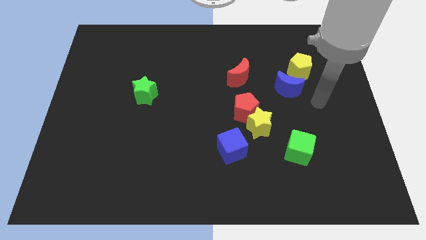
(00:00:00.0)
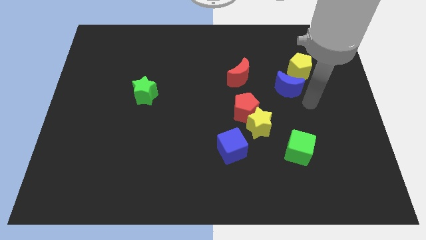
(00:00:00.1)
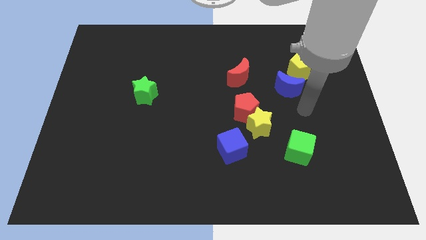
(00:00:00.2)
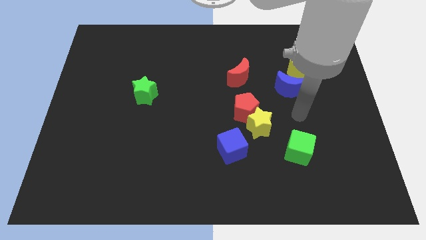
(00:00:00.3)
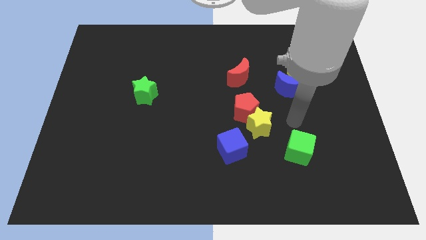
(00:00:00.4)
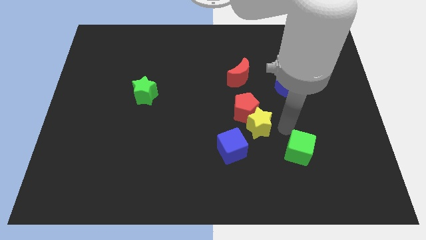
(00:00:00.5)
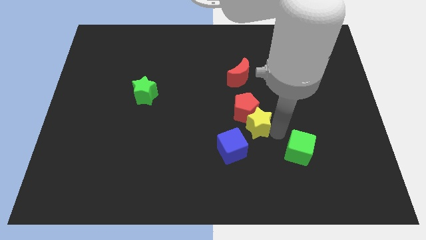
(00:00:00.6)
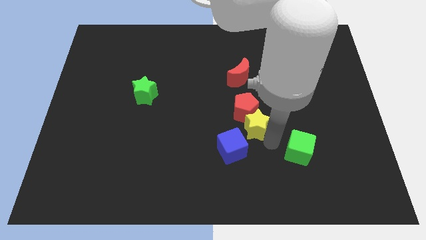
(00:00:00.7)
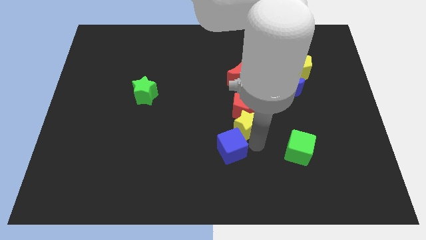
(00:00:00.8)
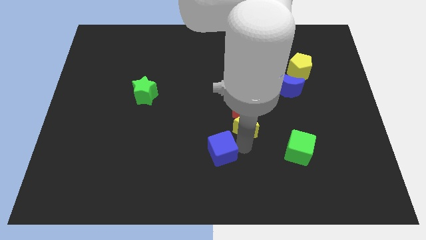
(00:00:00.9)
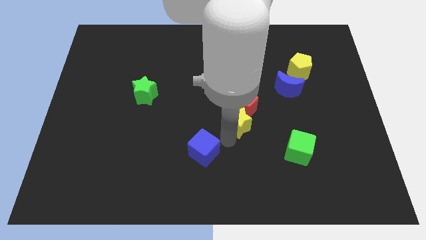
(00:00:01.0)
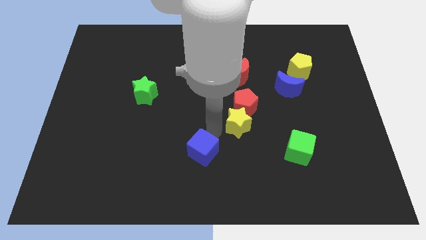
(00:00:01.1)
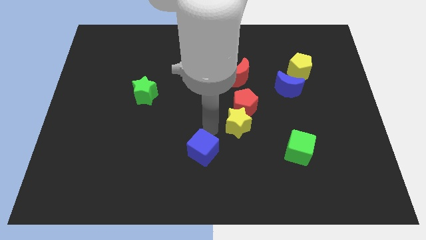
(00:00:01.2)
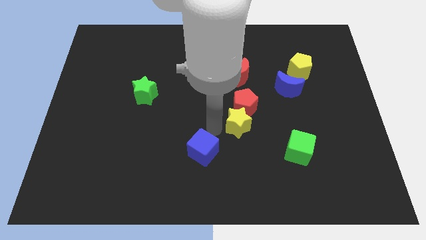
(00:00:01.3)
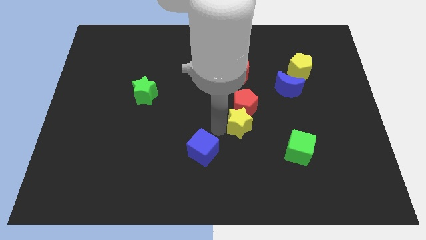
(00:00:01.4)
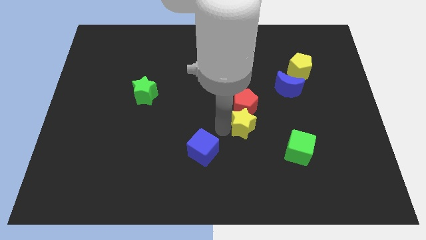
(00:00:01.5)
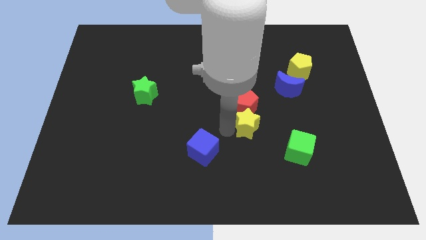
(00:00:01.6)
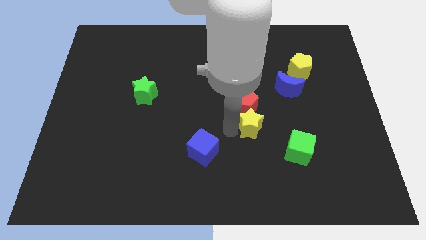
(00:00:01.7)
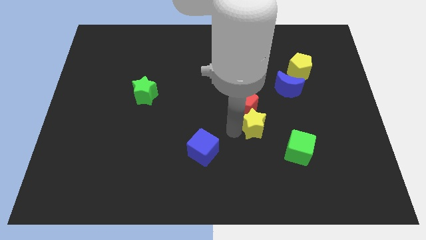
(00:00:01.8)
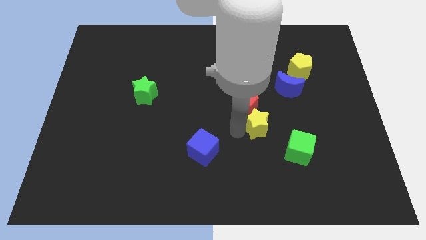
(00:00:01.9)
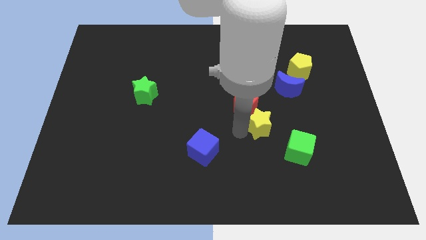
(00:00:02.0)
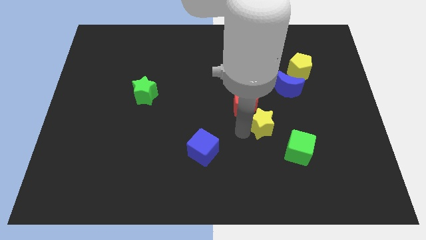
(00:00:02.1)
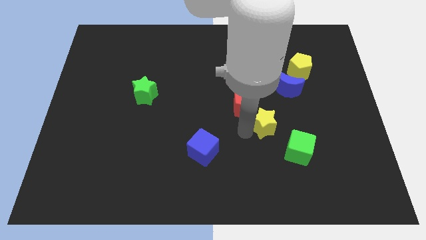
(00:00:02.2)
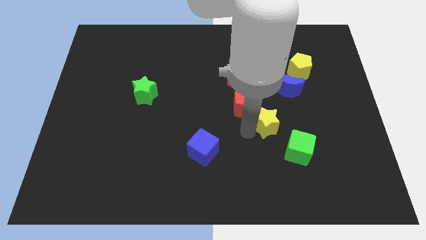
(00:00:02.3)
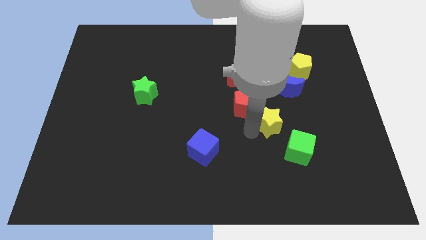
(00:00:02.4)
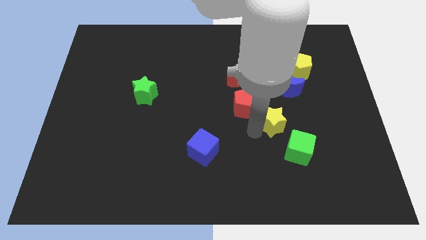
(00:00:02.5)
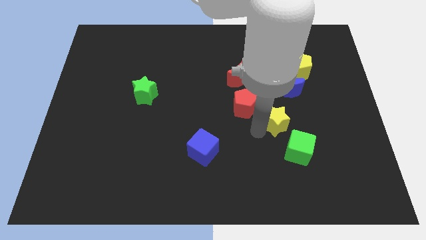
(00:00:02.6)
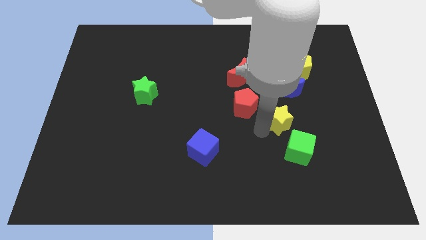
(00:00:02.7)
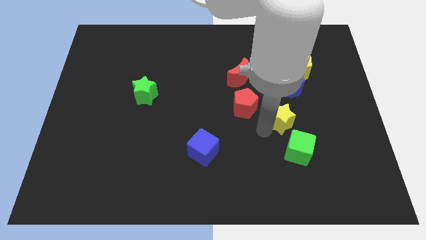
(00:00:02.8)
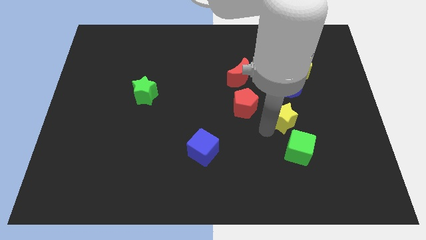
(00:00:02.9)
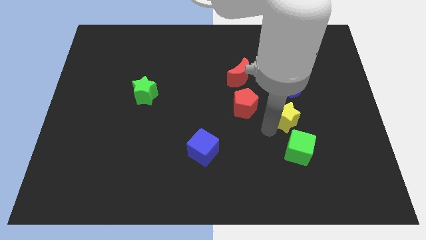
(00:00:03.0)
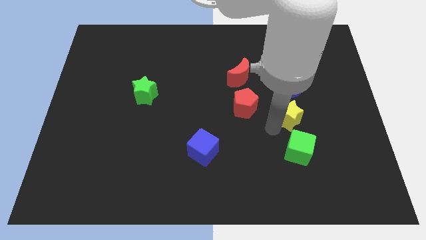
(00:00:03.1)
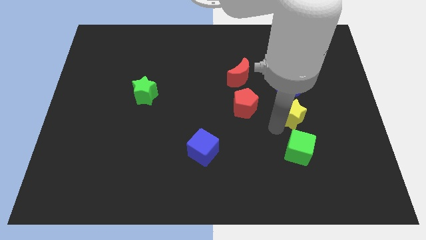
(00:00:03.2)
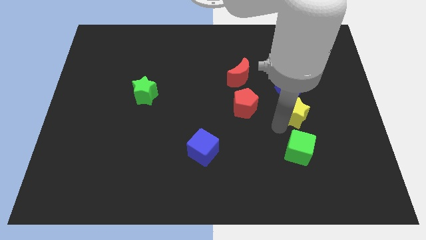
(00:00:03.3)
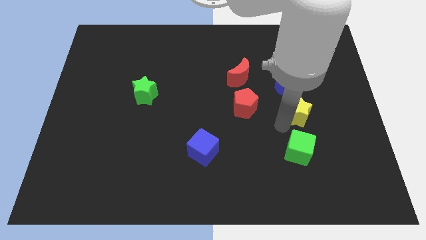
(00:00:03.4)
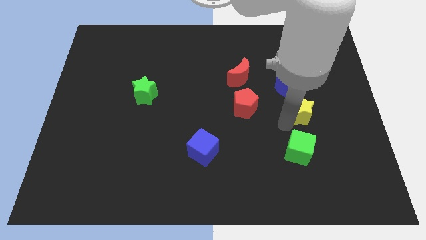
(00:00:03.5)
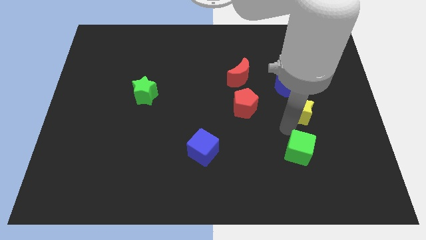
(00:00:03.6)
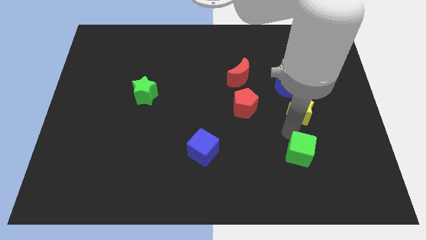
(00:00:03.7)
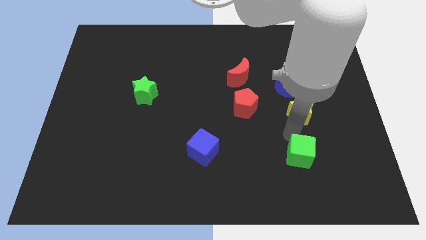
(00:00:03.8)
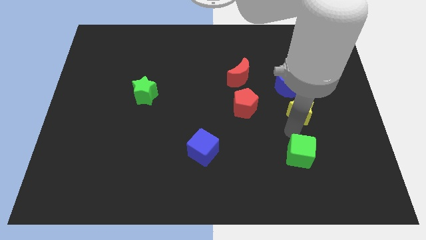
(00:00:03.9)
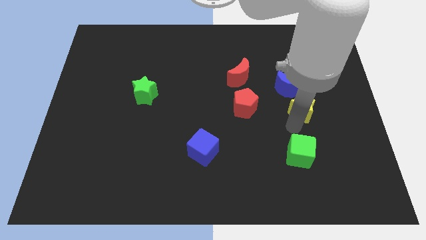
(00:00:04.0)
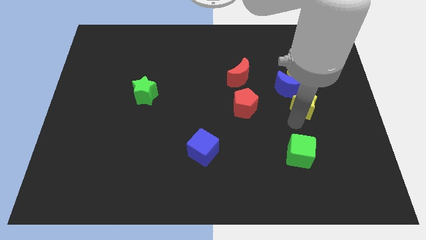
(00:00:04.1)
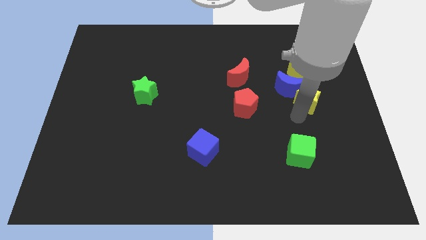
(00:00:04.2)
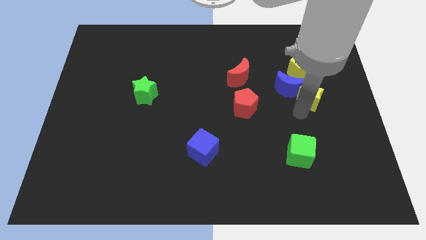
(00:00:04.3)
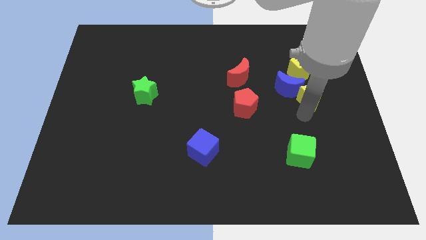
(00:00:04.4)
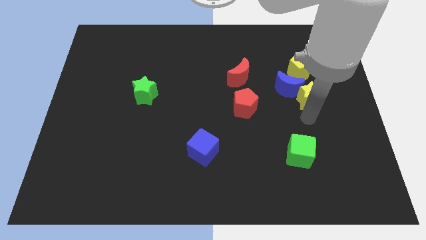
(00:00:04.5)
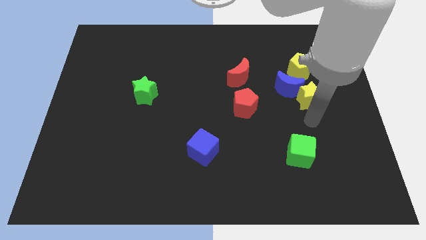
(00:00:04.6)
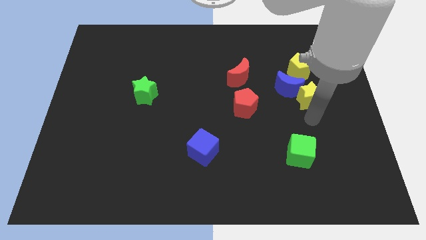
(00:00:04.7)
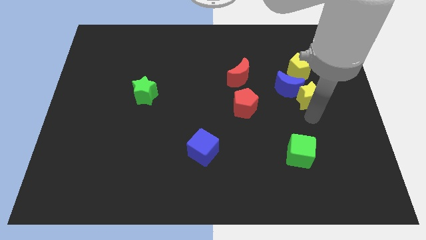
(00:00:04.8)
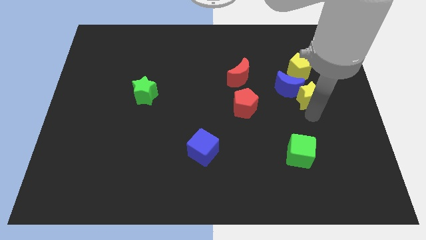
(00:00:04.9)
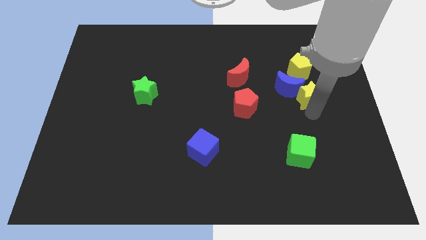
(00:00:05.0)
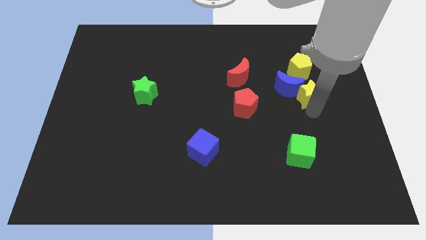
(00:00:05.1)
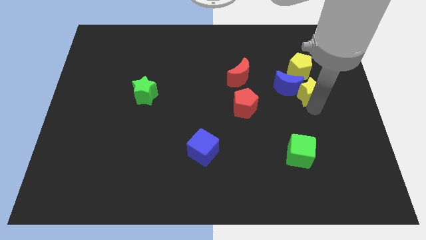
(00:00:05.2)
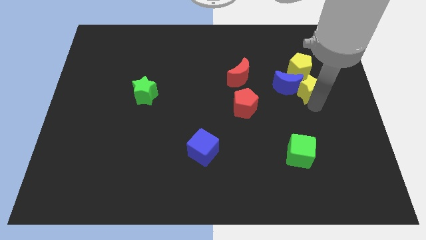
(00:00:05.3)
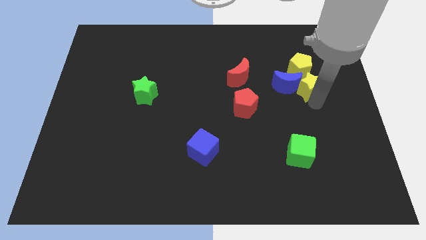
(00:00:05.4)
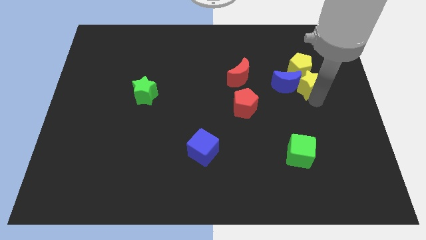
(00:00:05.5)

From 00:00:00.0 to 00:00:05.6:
push the yellow star towards the yellow pentagon
